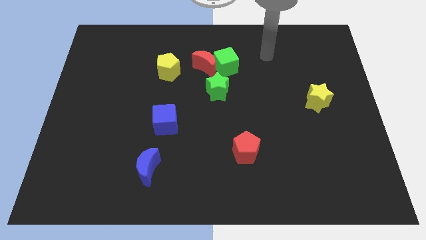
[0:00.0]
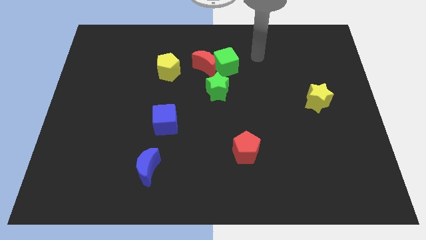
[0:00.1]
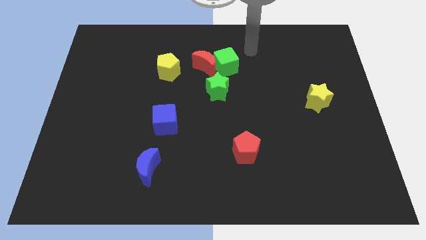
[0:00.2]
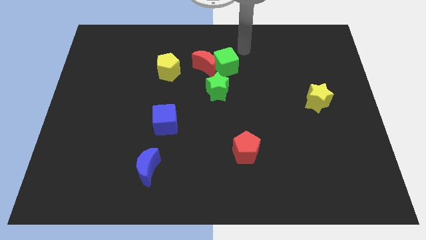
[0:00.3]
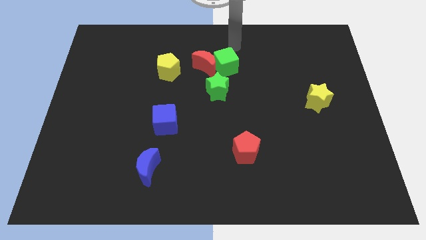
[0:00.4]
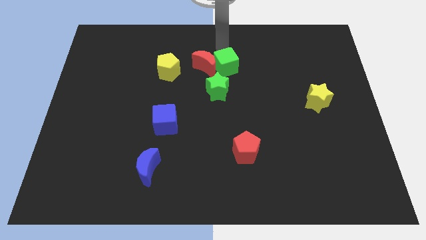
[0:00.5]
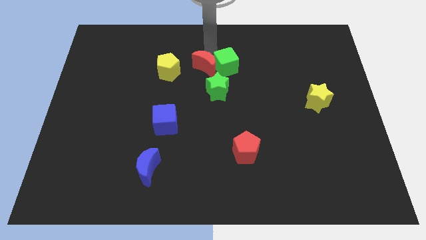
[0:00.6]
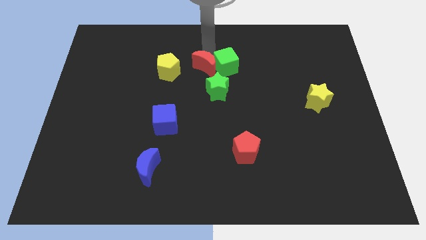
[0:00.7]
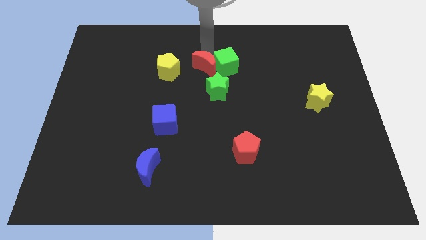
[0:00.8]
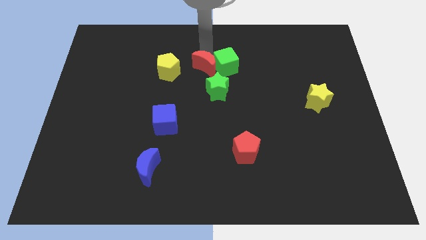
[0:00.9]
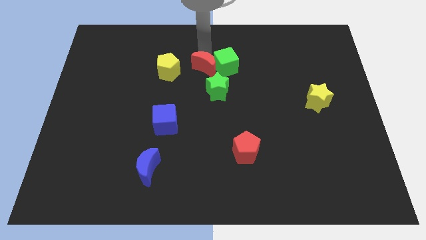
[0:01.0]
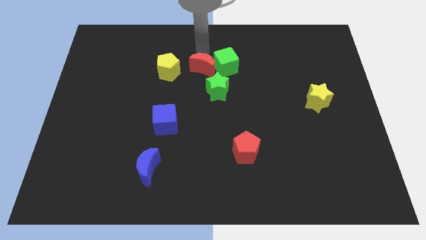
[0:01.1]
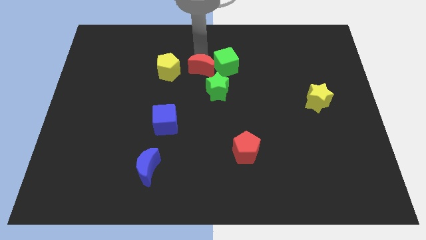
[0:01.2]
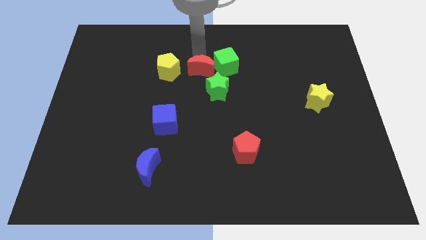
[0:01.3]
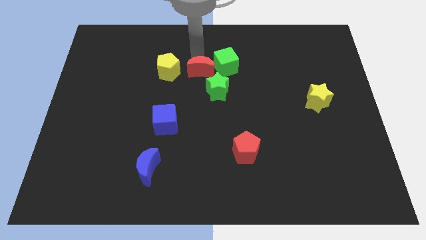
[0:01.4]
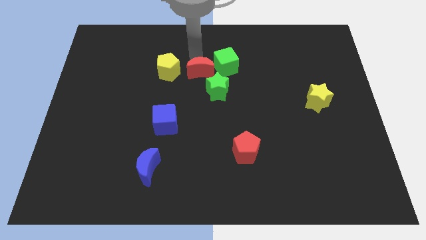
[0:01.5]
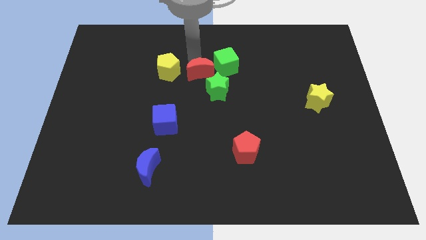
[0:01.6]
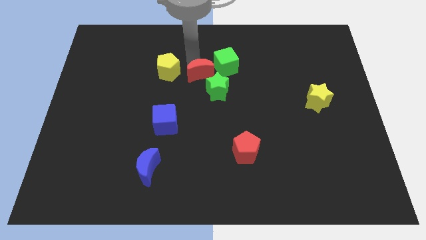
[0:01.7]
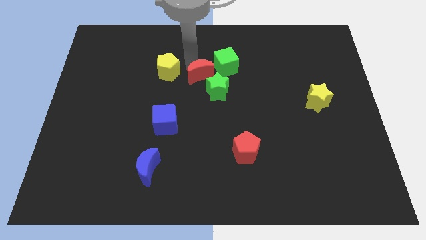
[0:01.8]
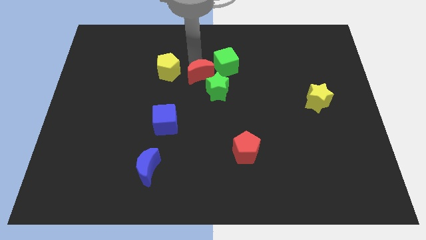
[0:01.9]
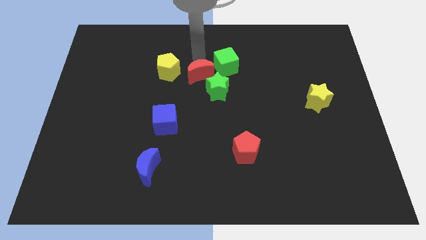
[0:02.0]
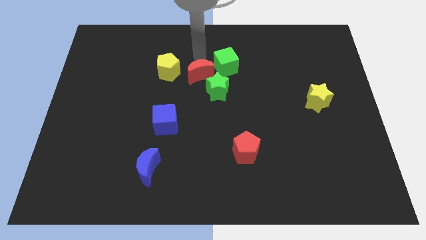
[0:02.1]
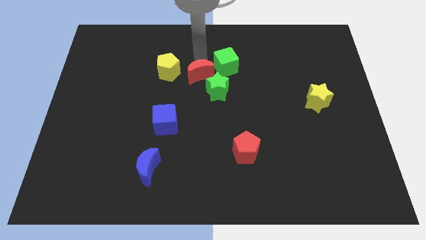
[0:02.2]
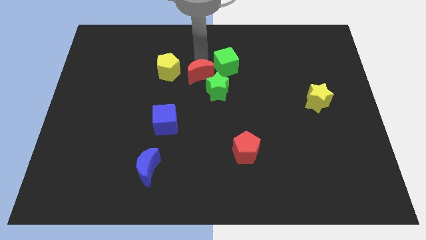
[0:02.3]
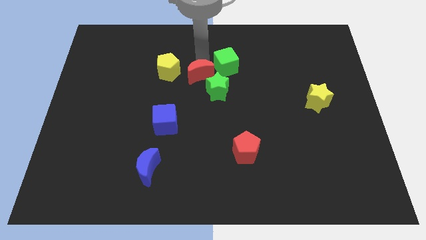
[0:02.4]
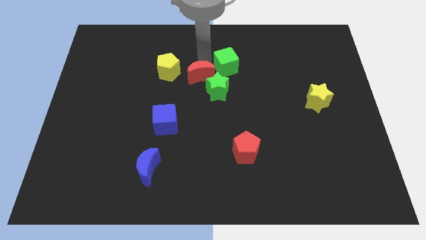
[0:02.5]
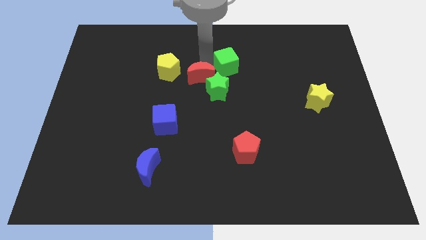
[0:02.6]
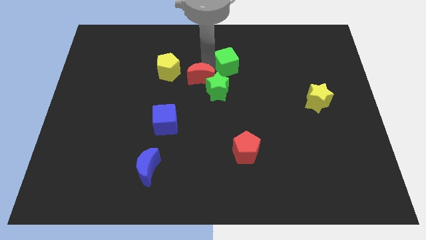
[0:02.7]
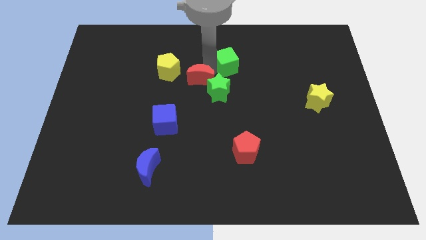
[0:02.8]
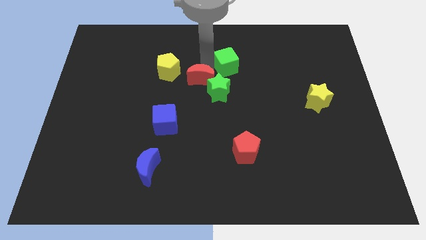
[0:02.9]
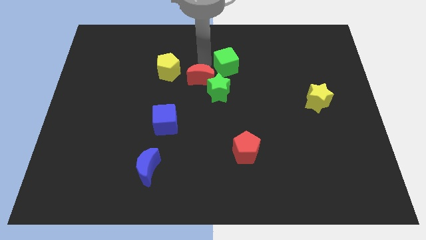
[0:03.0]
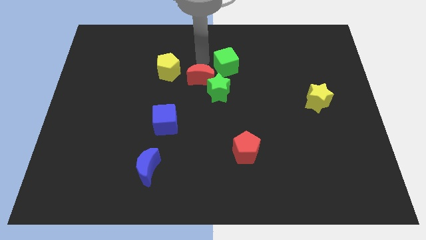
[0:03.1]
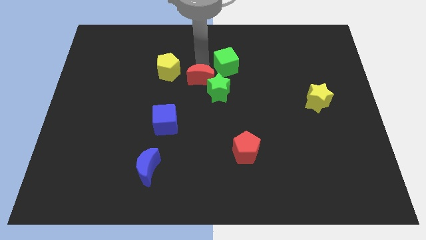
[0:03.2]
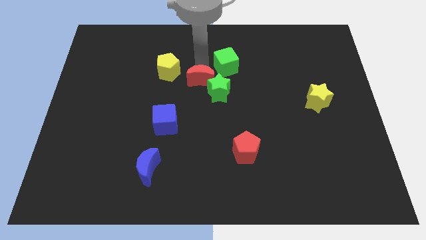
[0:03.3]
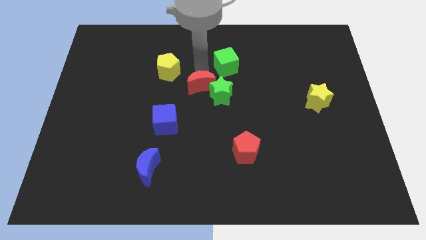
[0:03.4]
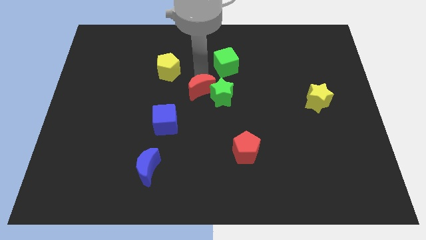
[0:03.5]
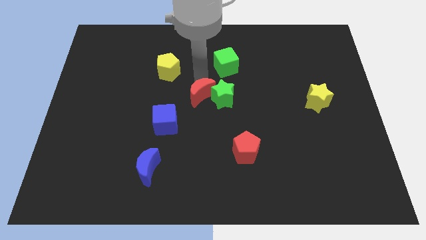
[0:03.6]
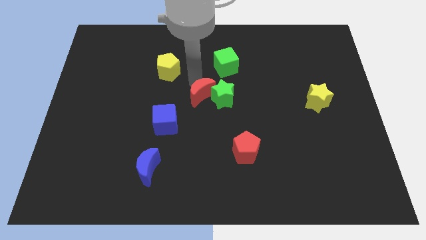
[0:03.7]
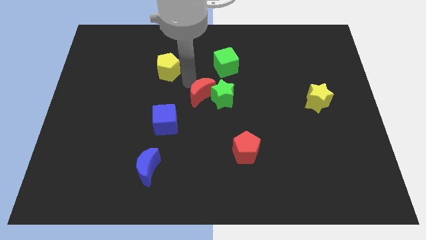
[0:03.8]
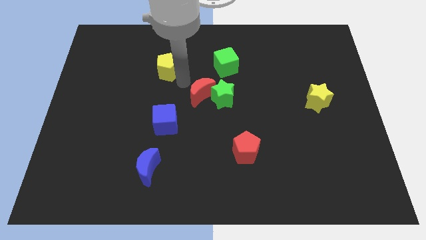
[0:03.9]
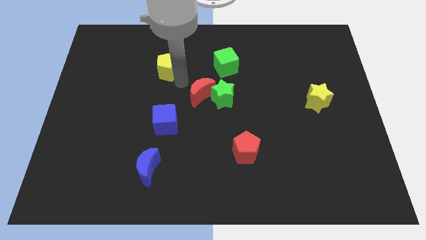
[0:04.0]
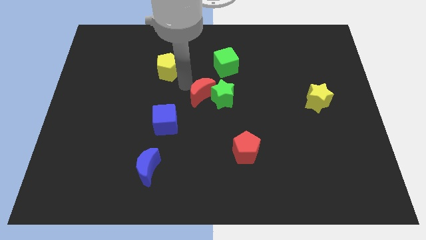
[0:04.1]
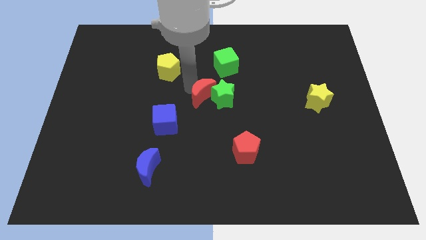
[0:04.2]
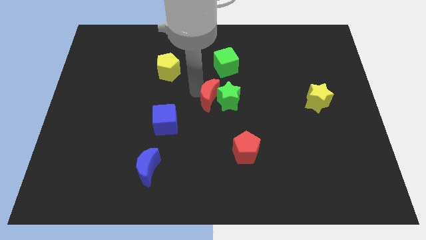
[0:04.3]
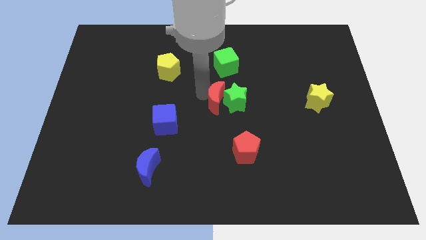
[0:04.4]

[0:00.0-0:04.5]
slightly slide the red moon downwards and to the right

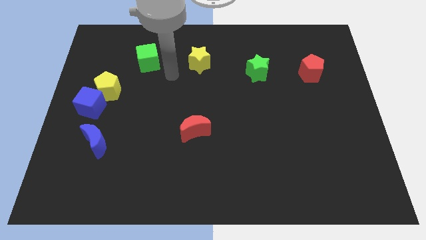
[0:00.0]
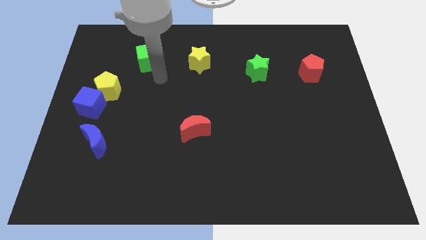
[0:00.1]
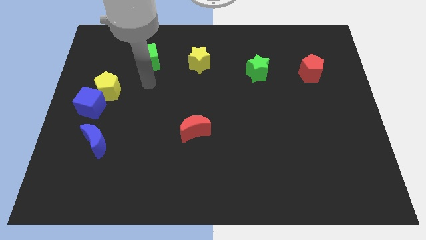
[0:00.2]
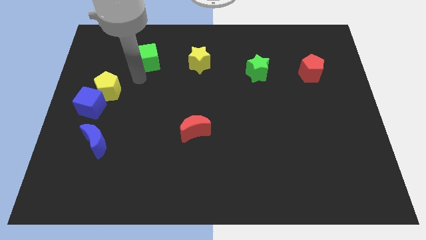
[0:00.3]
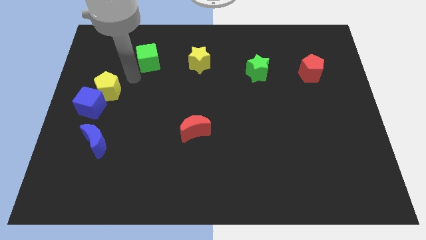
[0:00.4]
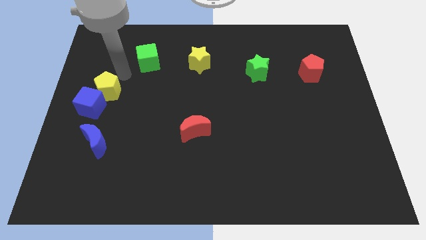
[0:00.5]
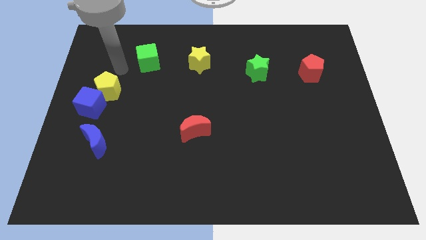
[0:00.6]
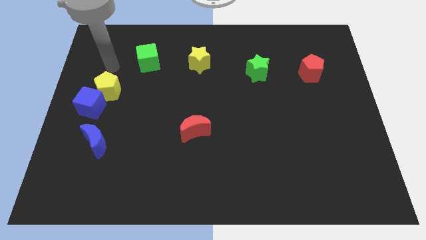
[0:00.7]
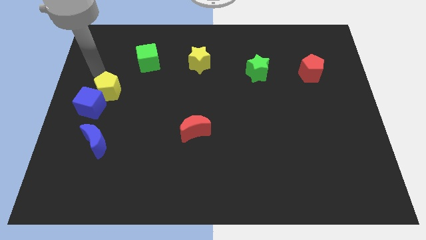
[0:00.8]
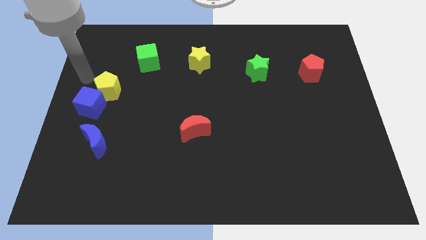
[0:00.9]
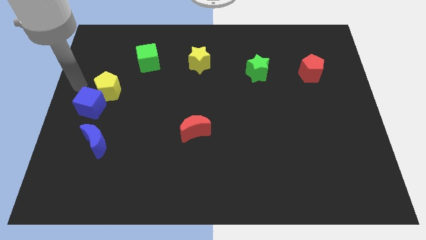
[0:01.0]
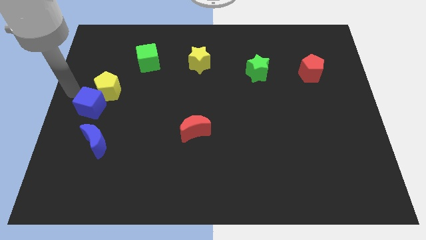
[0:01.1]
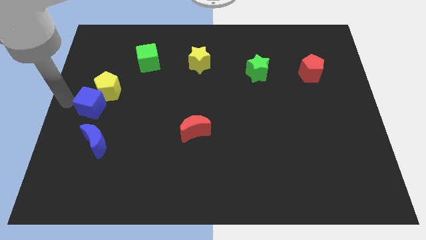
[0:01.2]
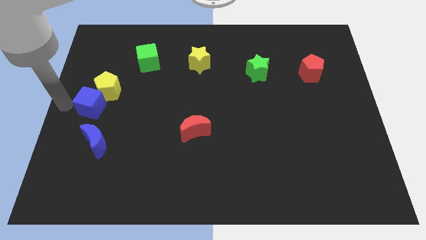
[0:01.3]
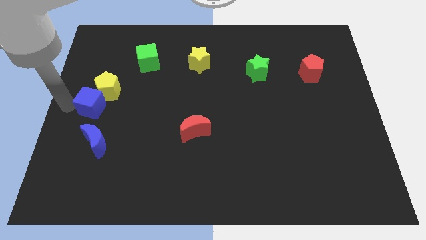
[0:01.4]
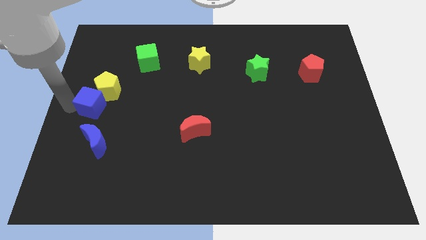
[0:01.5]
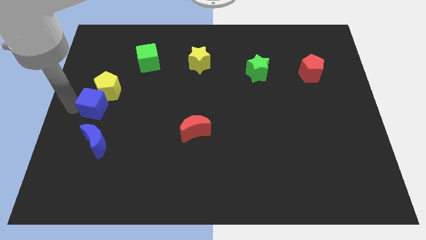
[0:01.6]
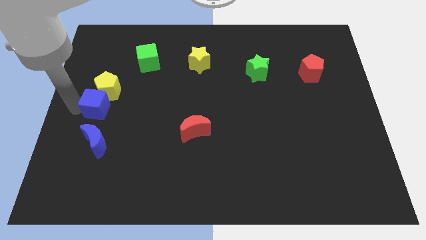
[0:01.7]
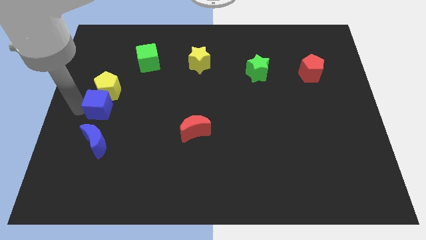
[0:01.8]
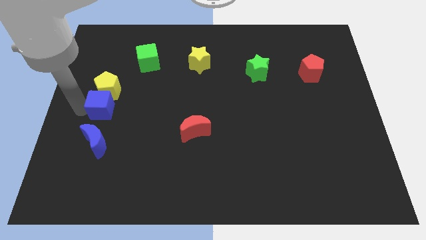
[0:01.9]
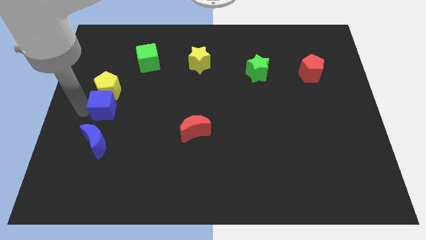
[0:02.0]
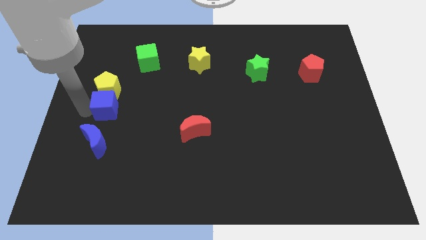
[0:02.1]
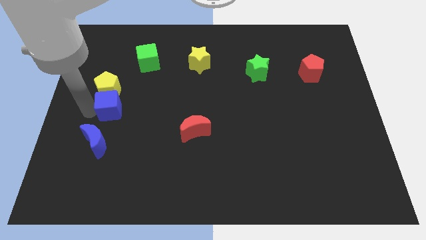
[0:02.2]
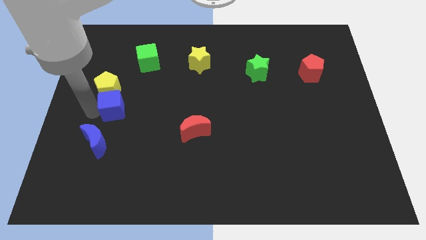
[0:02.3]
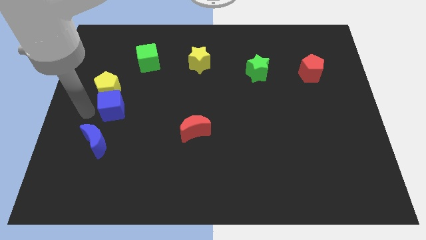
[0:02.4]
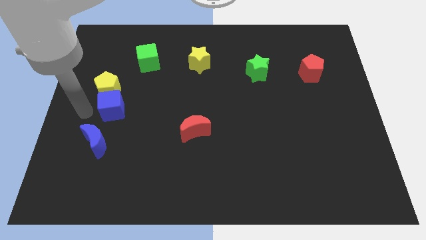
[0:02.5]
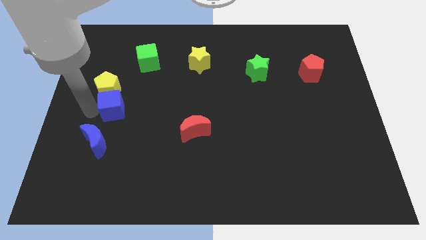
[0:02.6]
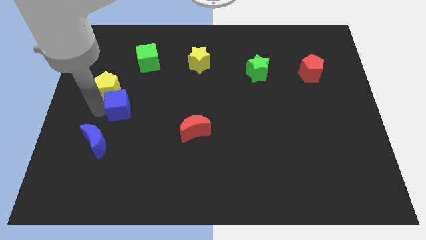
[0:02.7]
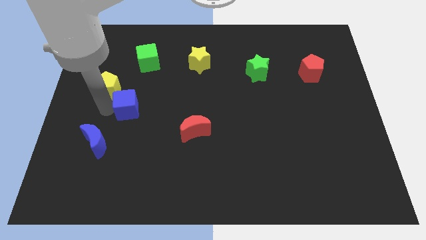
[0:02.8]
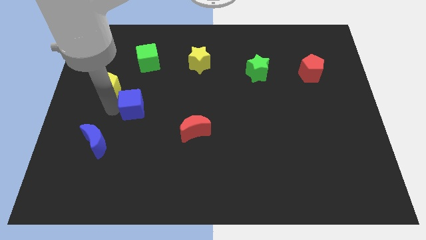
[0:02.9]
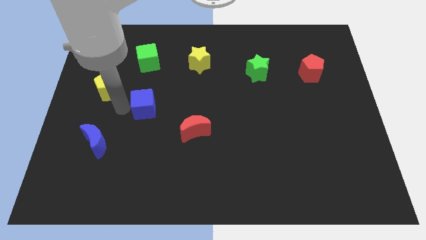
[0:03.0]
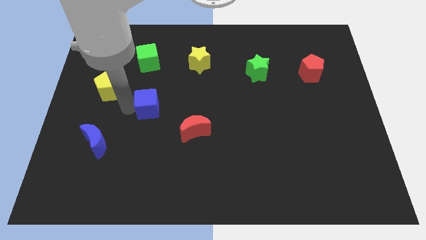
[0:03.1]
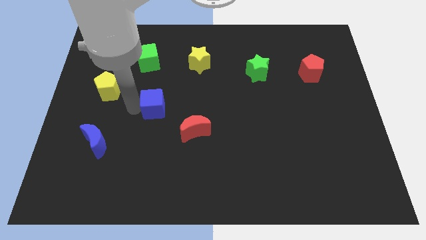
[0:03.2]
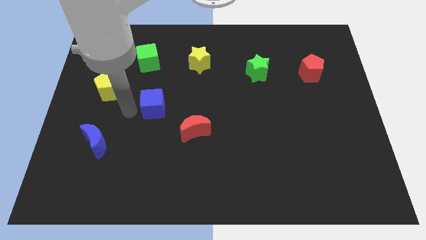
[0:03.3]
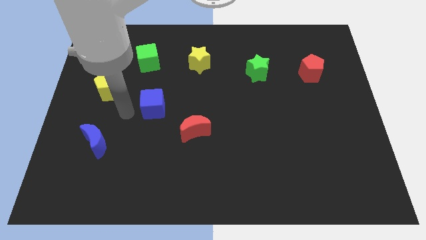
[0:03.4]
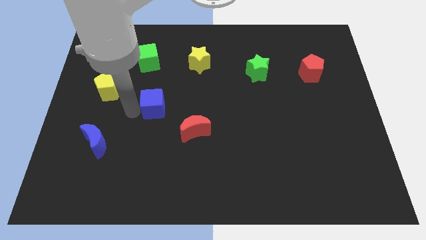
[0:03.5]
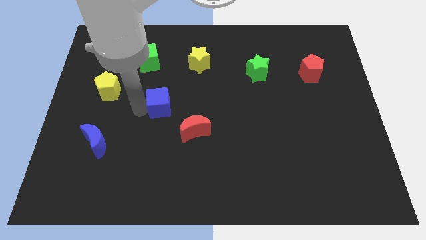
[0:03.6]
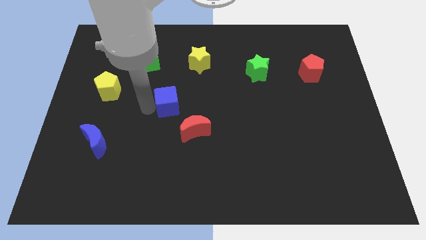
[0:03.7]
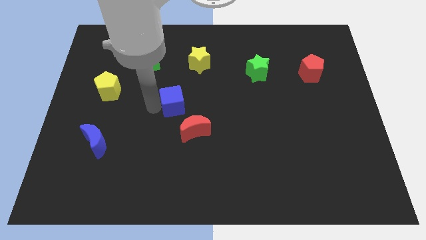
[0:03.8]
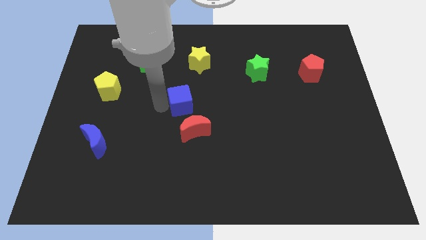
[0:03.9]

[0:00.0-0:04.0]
move the blue cube to the right
